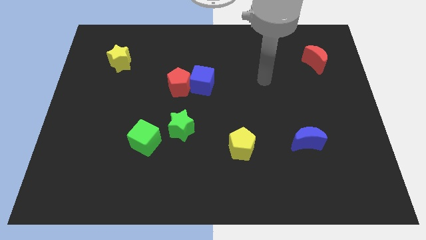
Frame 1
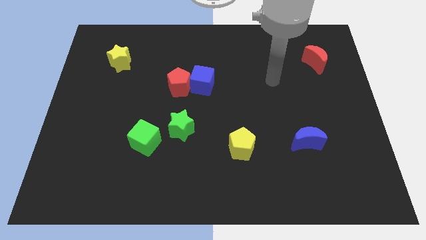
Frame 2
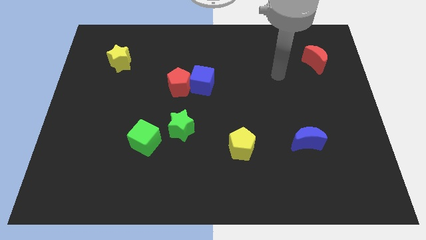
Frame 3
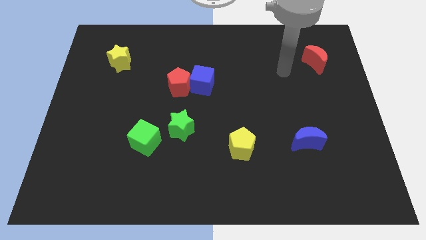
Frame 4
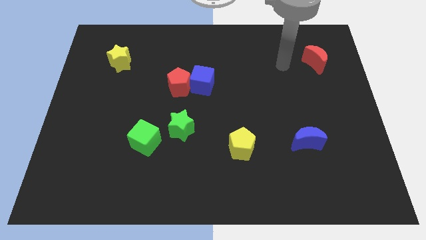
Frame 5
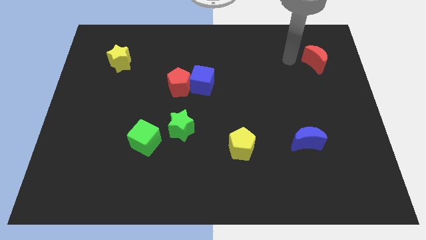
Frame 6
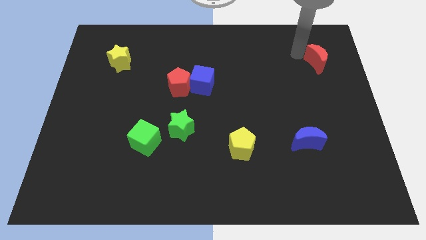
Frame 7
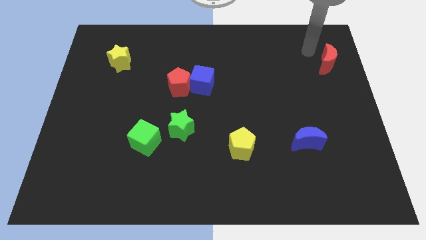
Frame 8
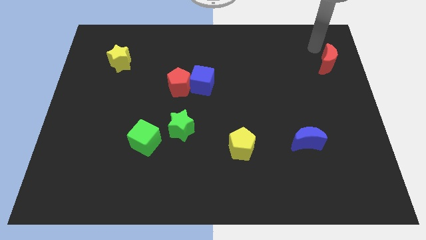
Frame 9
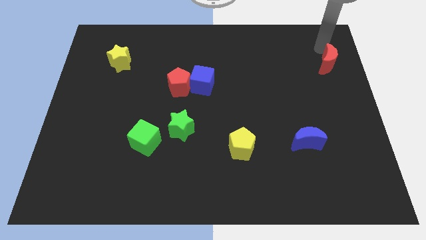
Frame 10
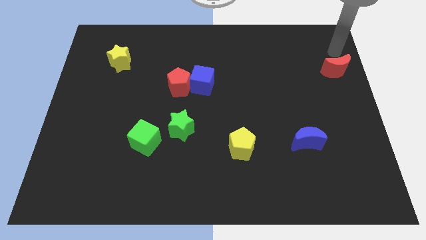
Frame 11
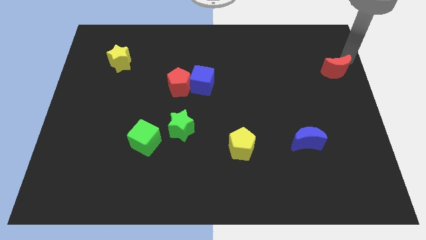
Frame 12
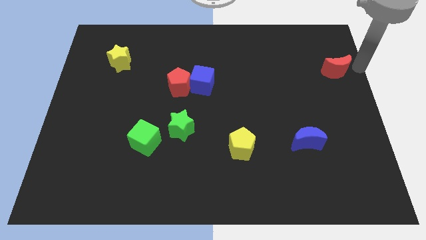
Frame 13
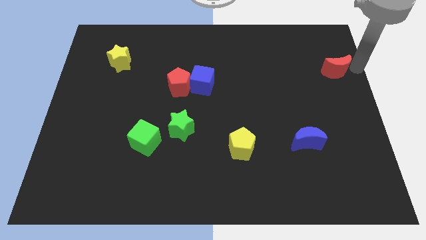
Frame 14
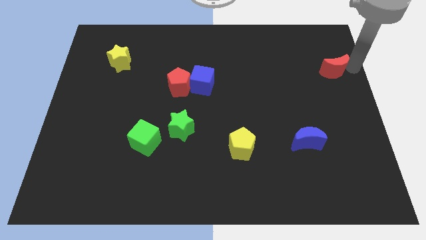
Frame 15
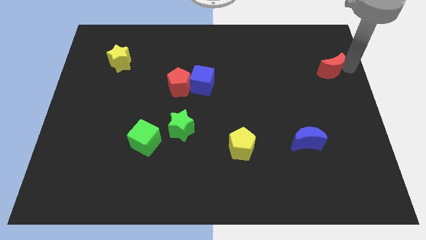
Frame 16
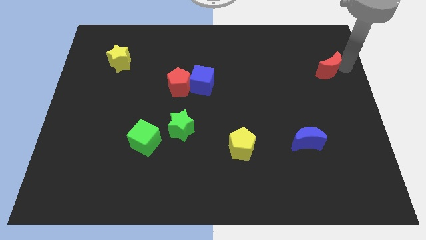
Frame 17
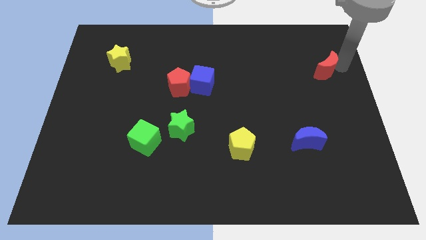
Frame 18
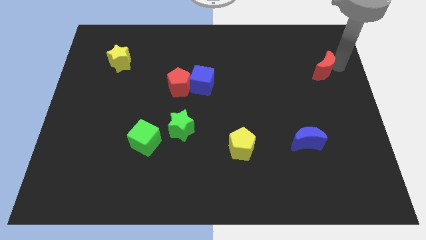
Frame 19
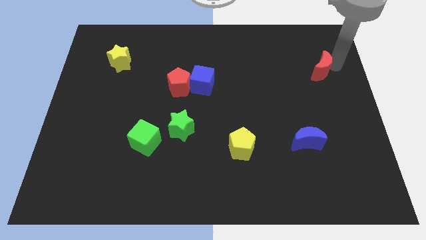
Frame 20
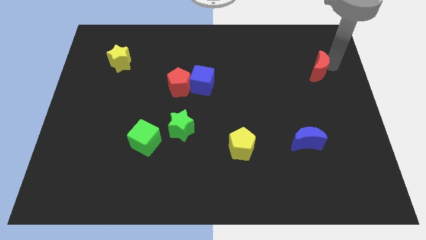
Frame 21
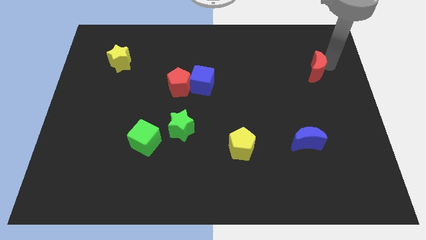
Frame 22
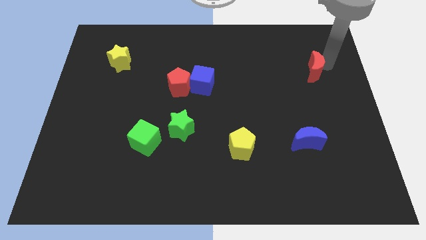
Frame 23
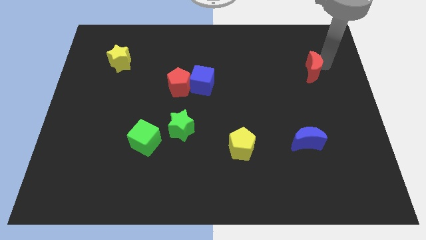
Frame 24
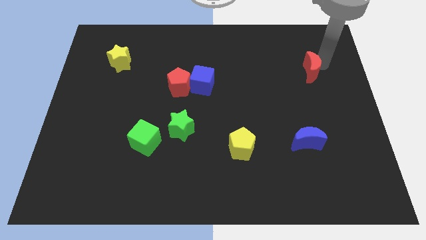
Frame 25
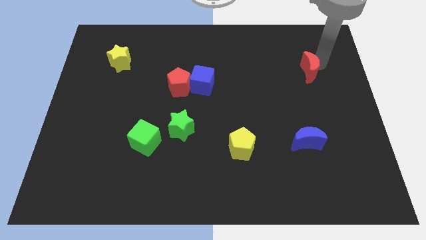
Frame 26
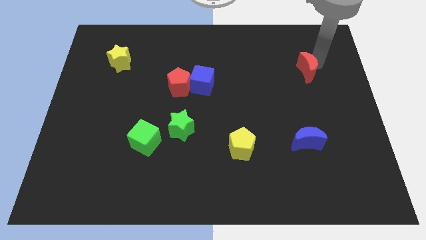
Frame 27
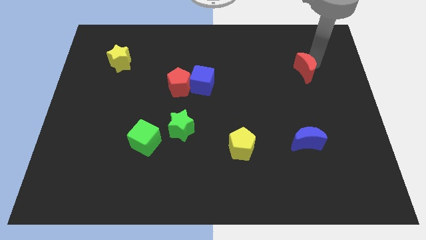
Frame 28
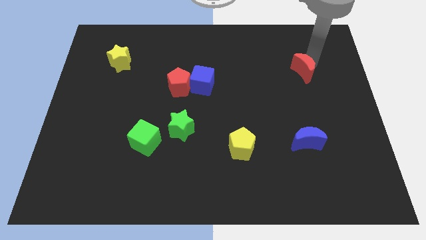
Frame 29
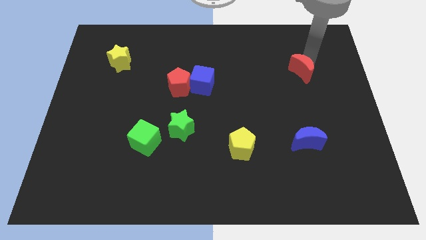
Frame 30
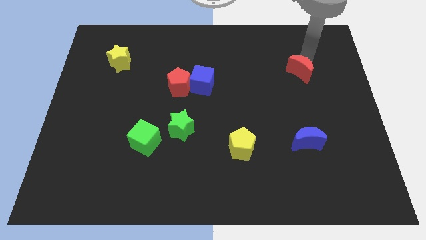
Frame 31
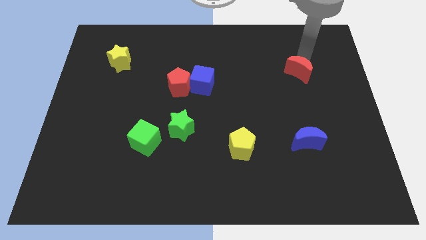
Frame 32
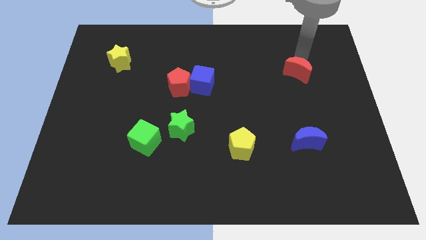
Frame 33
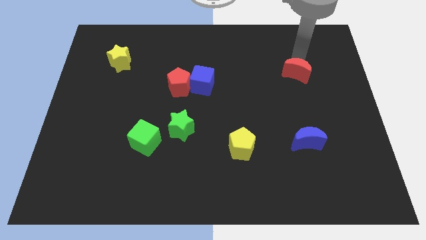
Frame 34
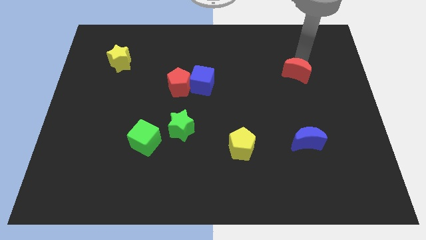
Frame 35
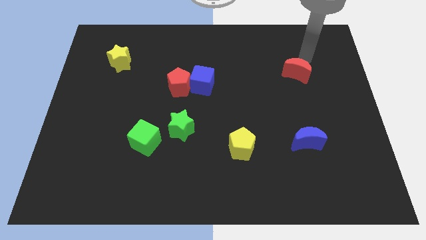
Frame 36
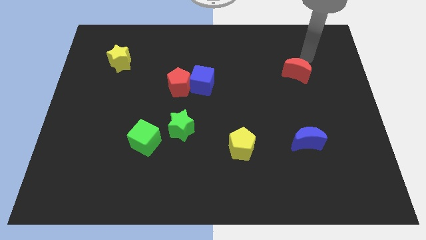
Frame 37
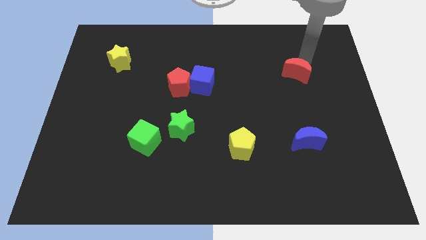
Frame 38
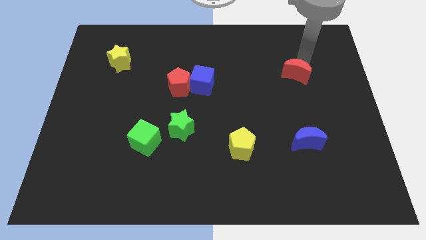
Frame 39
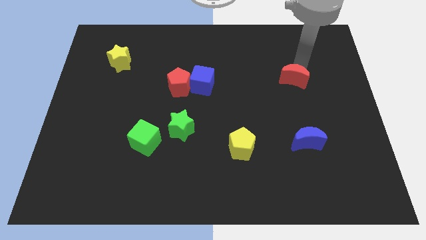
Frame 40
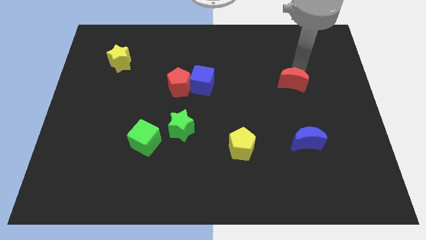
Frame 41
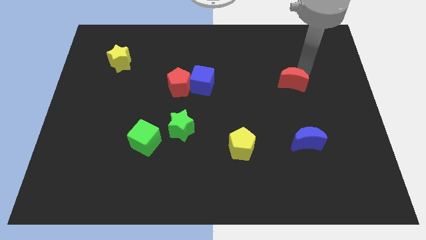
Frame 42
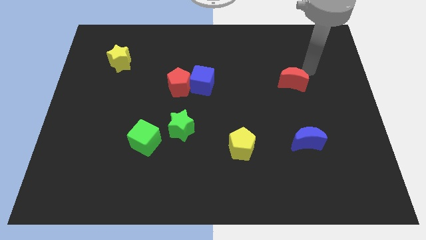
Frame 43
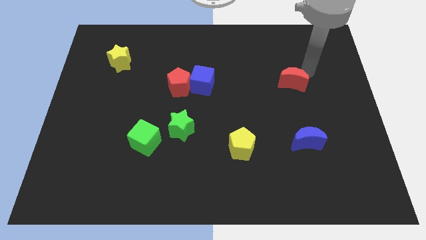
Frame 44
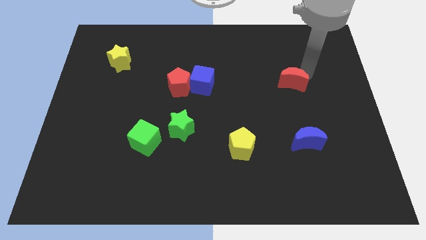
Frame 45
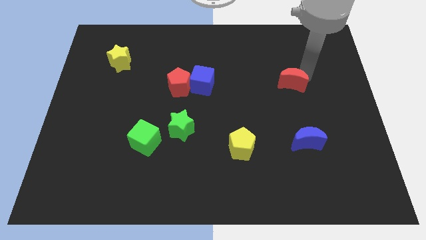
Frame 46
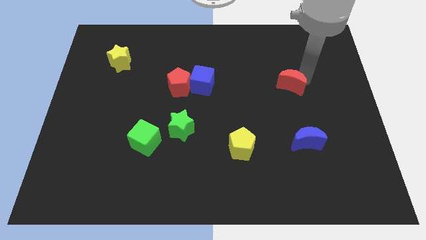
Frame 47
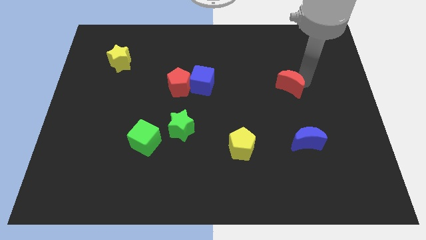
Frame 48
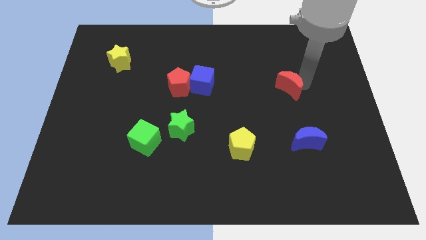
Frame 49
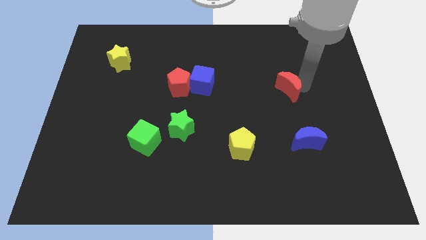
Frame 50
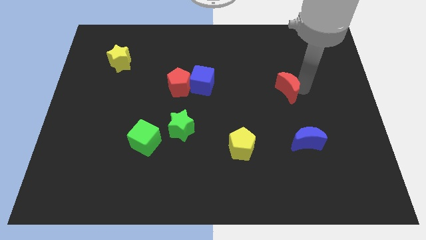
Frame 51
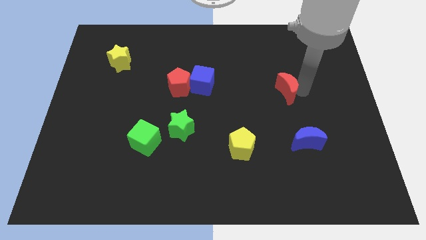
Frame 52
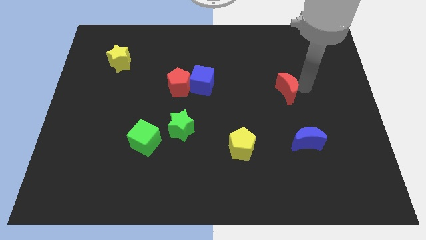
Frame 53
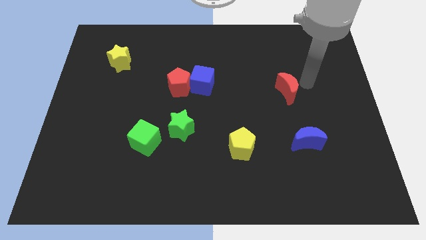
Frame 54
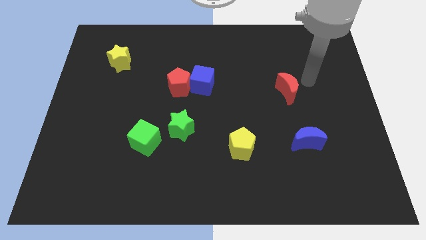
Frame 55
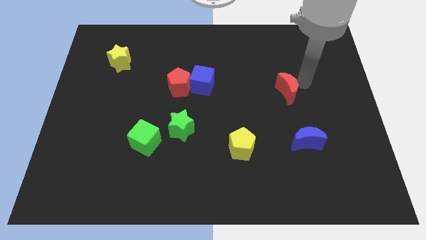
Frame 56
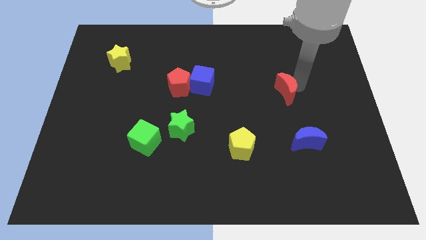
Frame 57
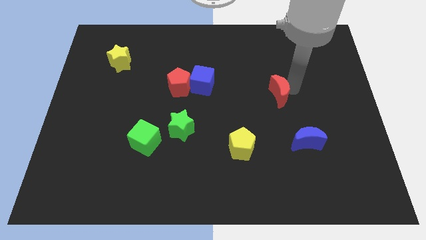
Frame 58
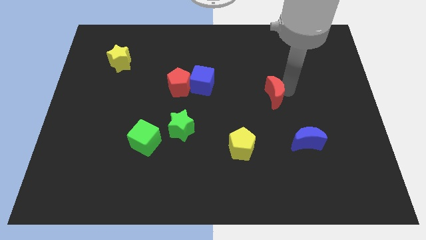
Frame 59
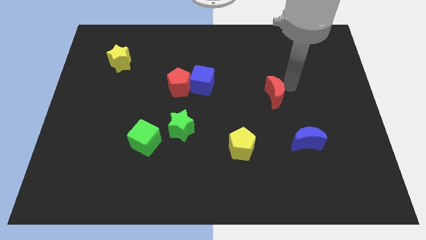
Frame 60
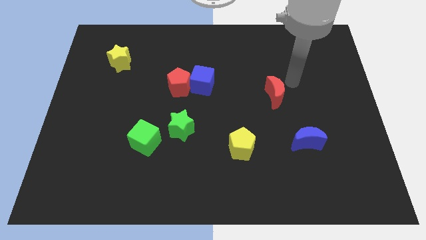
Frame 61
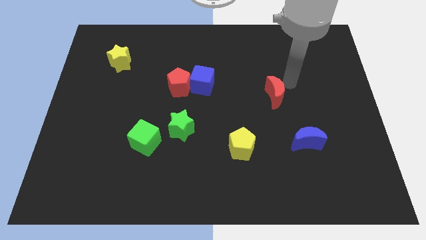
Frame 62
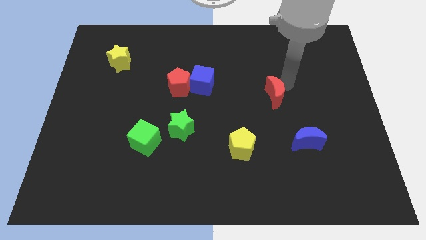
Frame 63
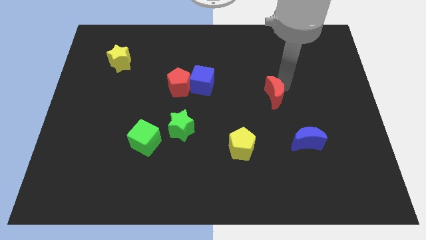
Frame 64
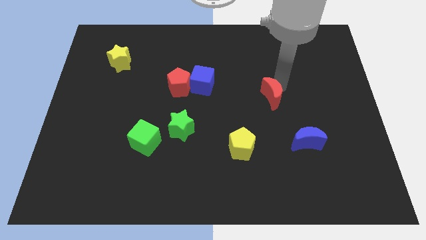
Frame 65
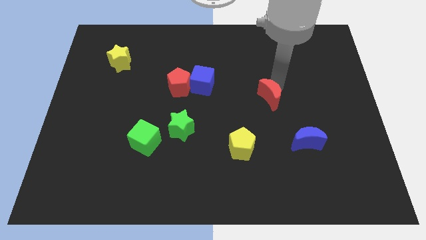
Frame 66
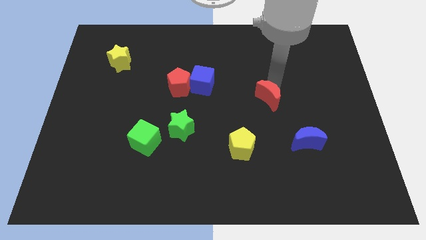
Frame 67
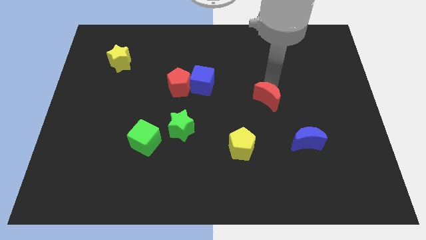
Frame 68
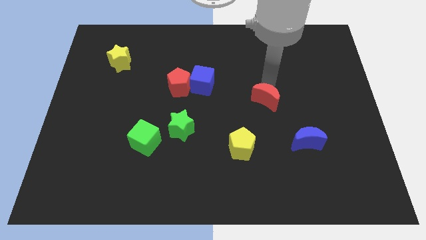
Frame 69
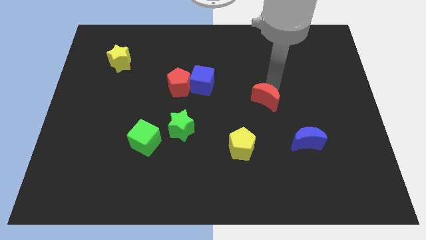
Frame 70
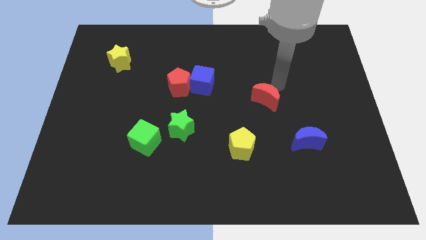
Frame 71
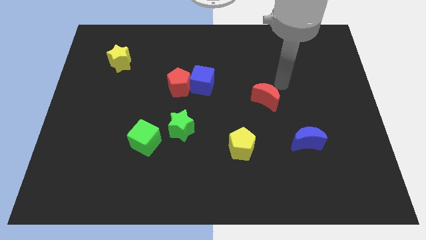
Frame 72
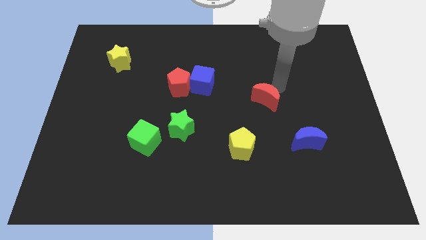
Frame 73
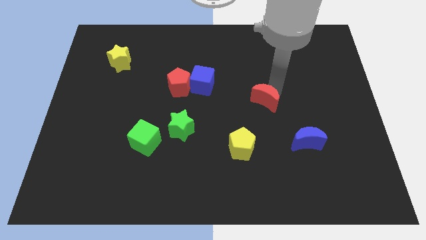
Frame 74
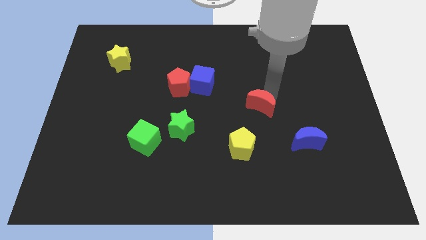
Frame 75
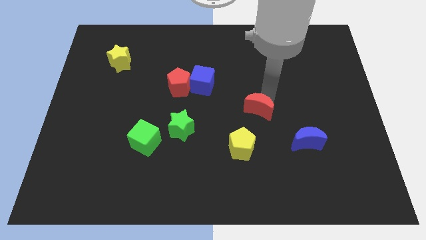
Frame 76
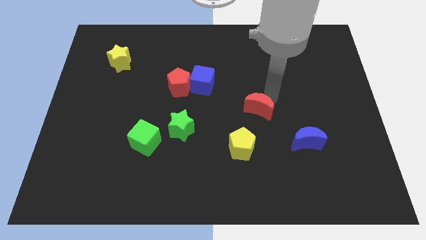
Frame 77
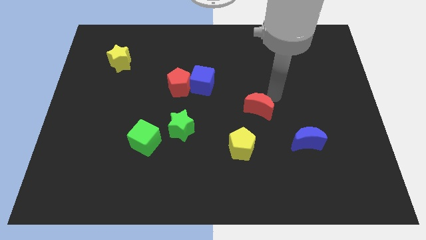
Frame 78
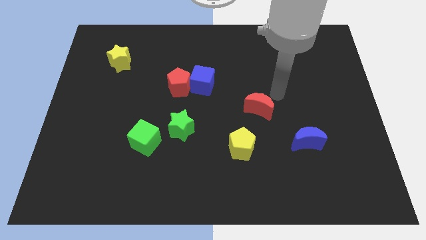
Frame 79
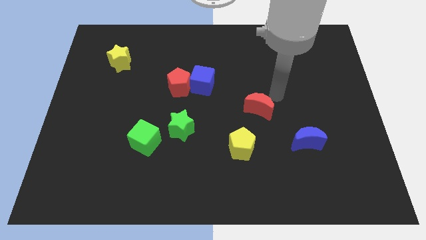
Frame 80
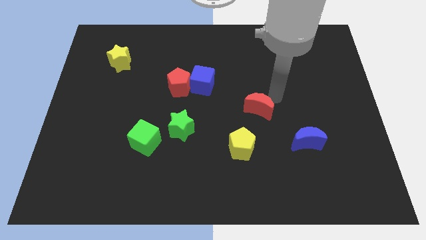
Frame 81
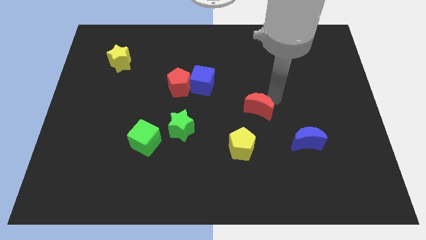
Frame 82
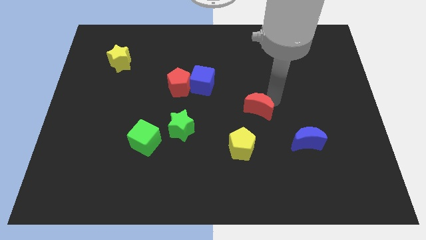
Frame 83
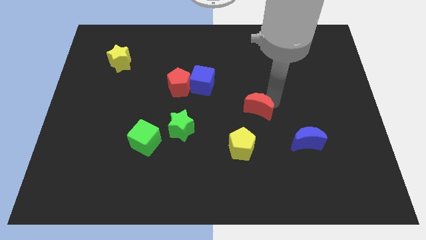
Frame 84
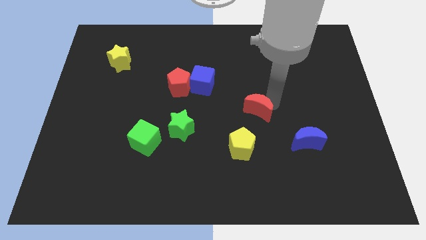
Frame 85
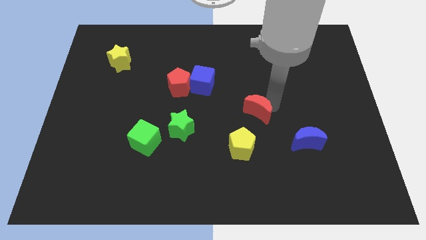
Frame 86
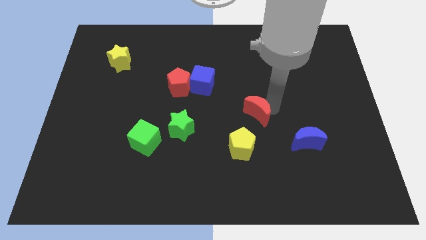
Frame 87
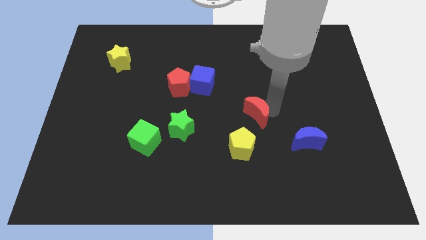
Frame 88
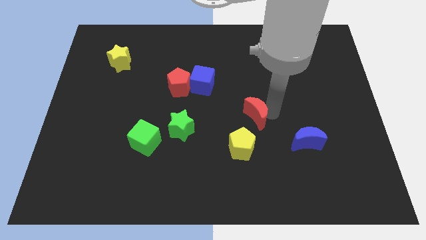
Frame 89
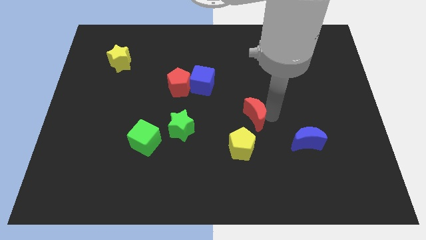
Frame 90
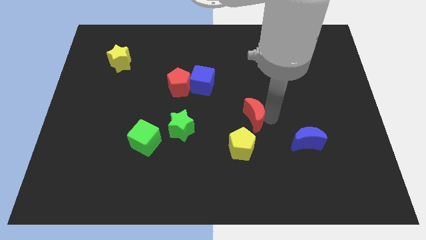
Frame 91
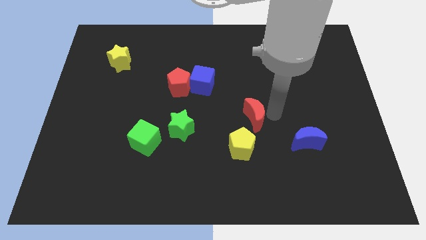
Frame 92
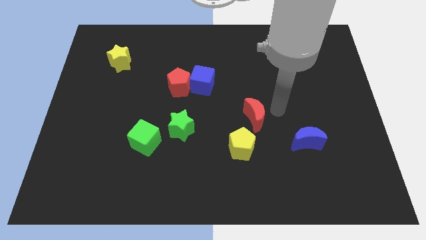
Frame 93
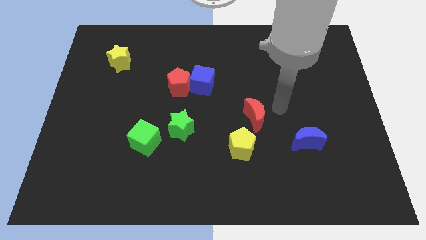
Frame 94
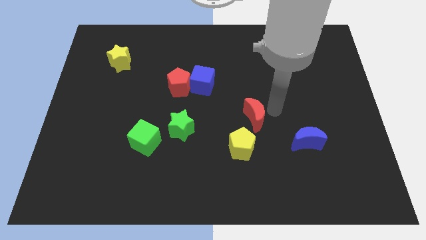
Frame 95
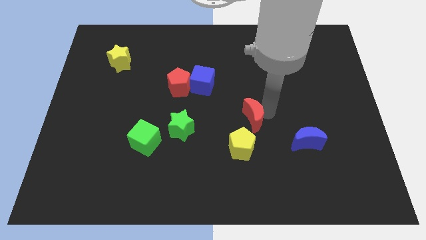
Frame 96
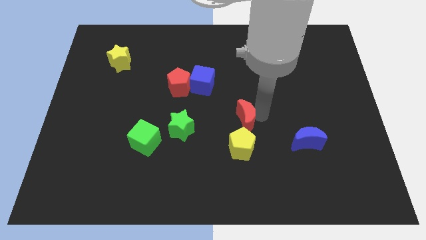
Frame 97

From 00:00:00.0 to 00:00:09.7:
push the red moon right of the green star
